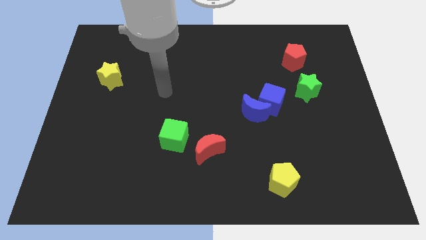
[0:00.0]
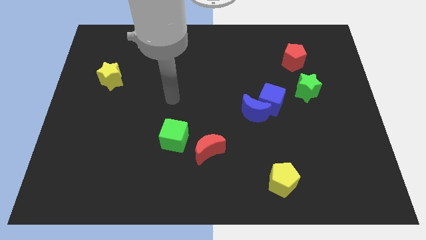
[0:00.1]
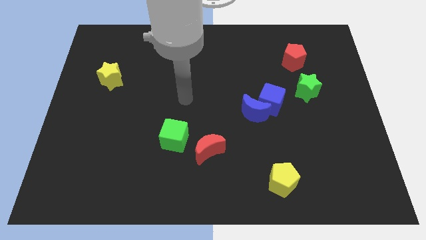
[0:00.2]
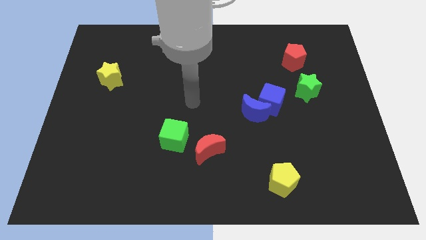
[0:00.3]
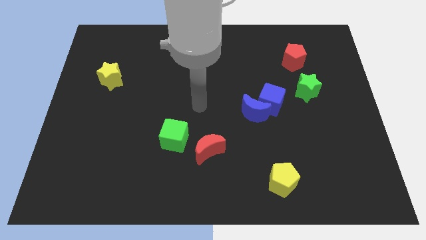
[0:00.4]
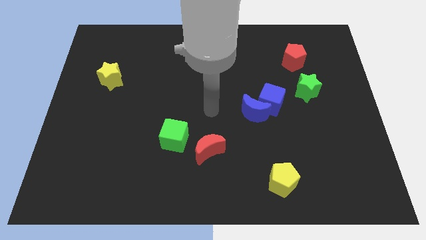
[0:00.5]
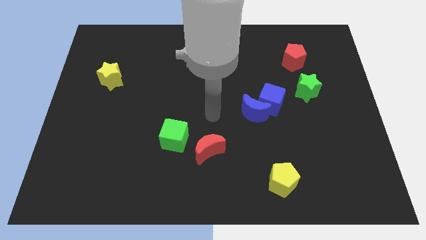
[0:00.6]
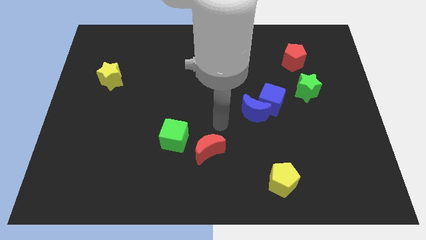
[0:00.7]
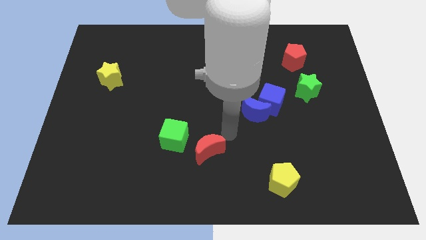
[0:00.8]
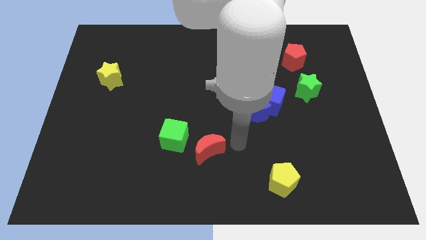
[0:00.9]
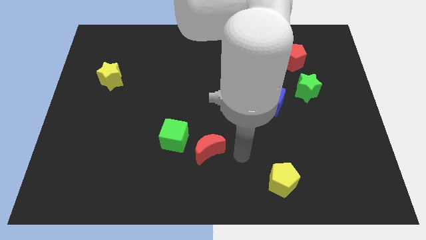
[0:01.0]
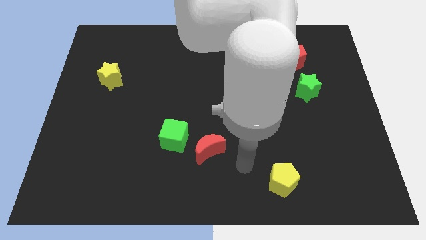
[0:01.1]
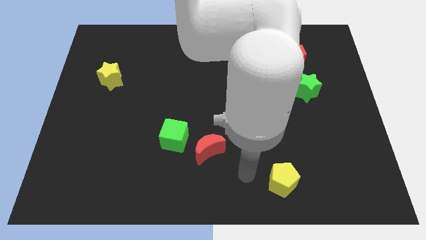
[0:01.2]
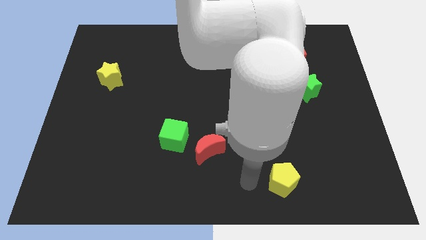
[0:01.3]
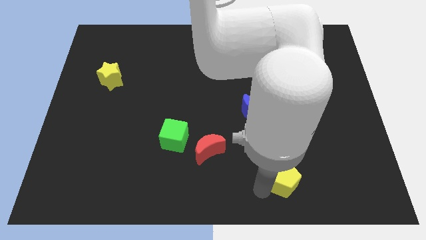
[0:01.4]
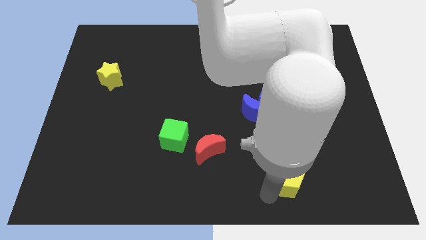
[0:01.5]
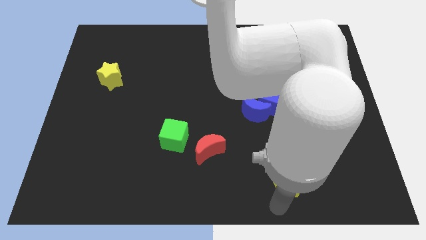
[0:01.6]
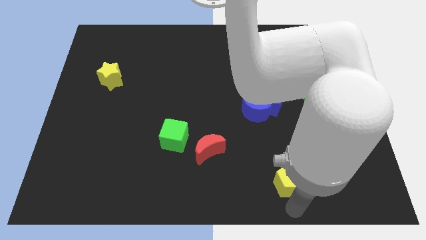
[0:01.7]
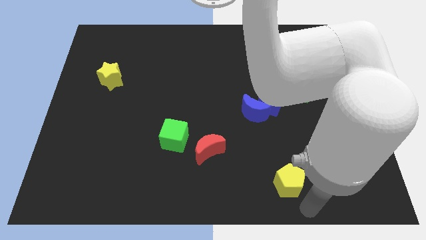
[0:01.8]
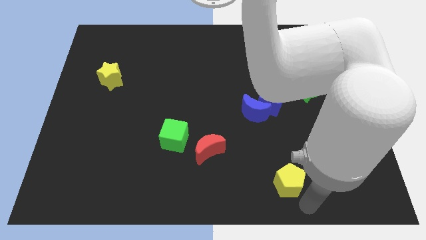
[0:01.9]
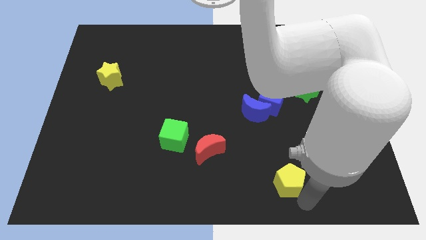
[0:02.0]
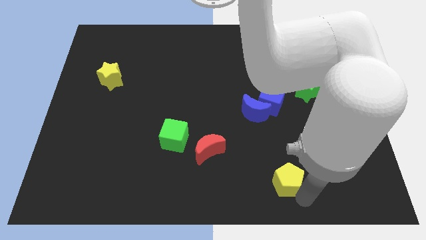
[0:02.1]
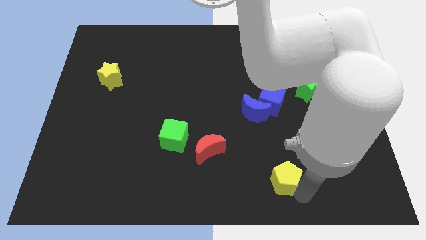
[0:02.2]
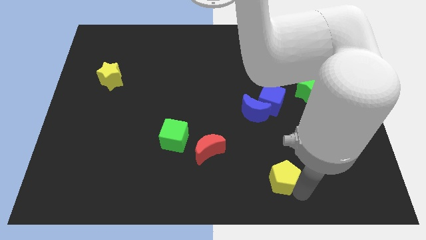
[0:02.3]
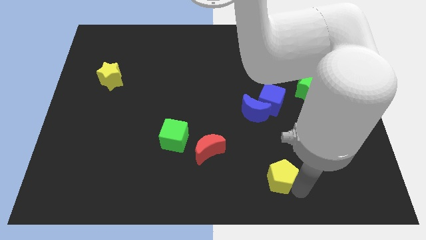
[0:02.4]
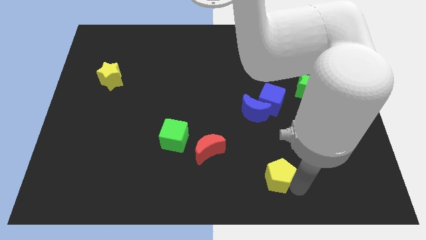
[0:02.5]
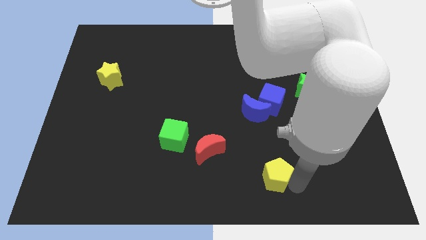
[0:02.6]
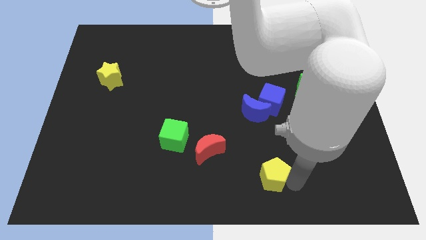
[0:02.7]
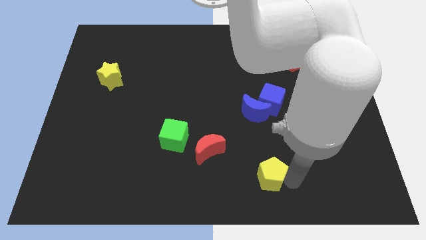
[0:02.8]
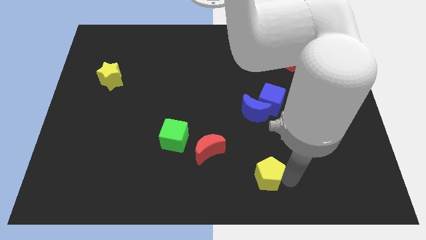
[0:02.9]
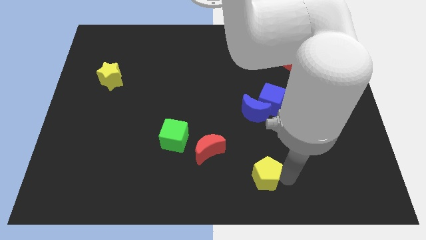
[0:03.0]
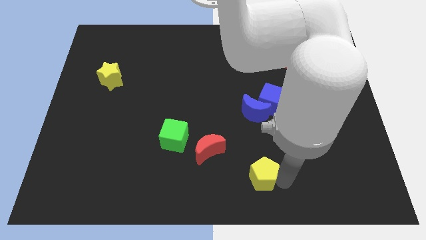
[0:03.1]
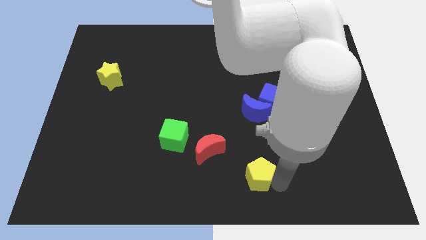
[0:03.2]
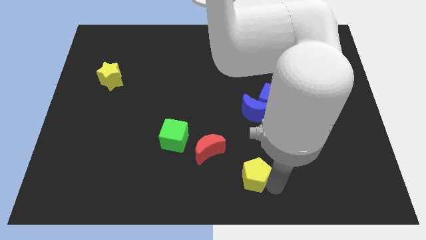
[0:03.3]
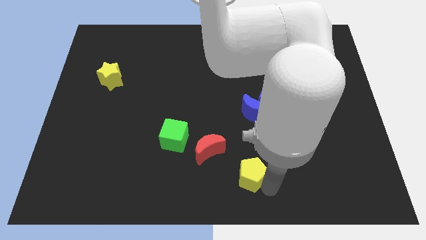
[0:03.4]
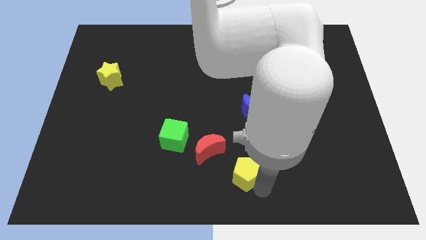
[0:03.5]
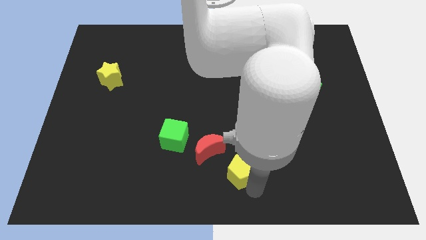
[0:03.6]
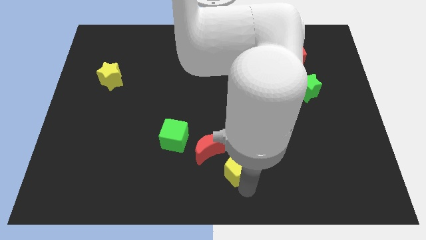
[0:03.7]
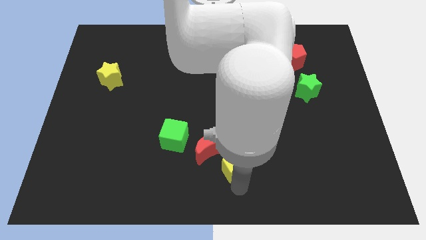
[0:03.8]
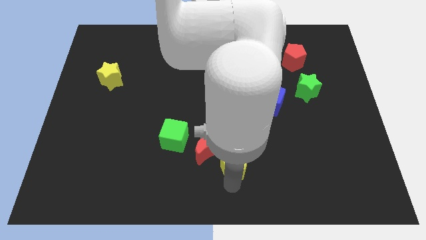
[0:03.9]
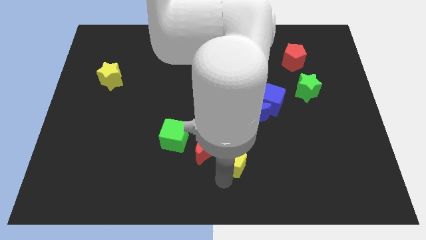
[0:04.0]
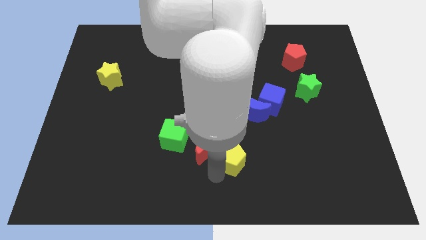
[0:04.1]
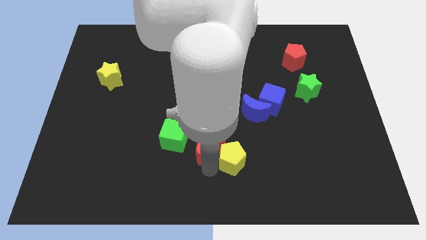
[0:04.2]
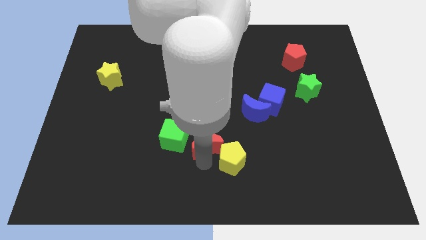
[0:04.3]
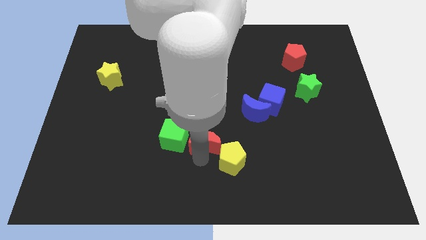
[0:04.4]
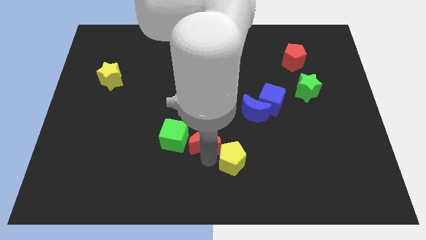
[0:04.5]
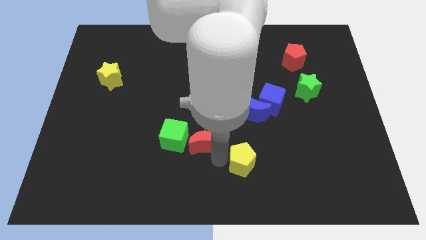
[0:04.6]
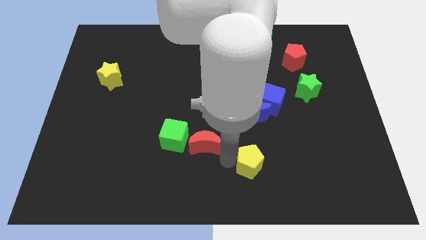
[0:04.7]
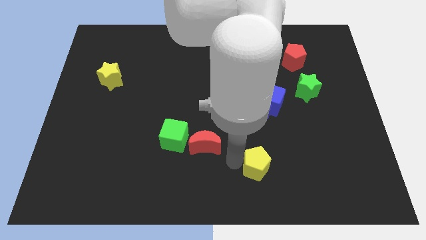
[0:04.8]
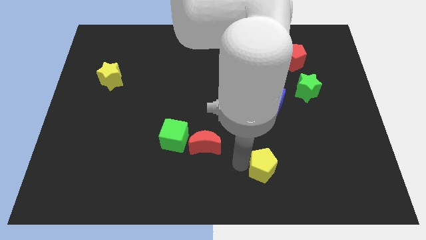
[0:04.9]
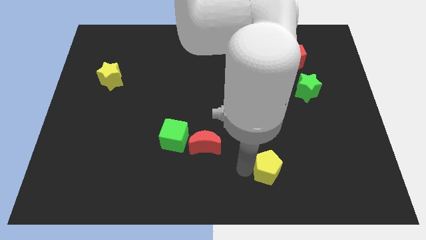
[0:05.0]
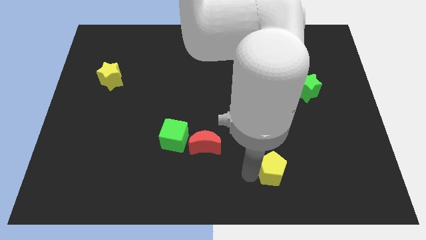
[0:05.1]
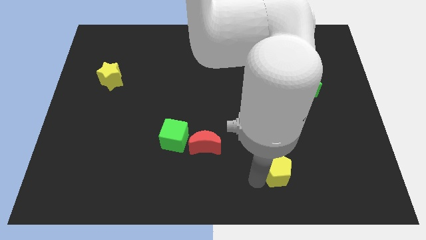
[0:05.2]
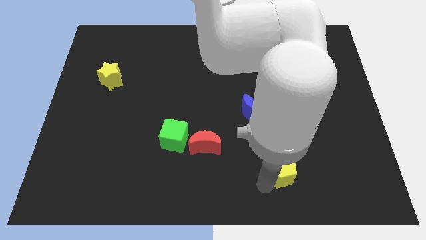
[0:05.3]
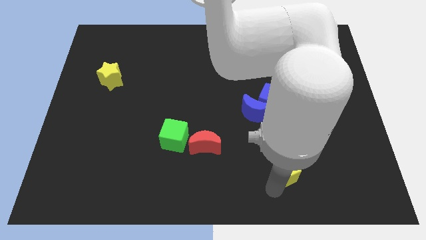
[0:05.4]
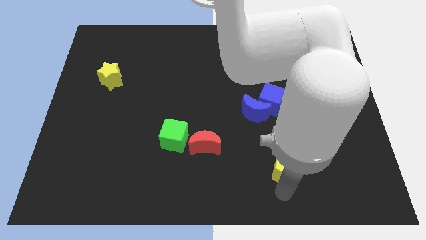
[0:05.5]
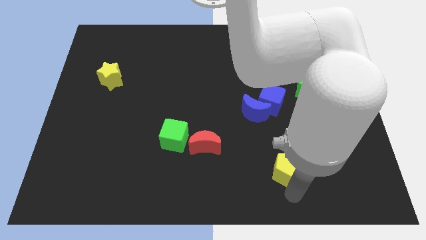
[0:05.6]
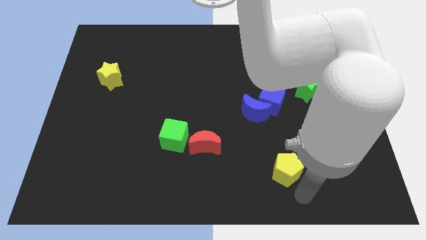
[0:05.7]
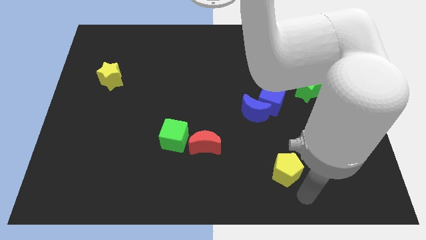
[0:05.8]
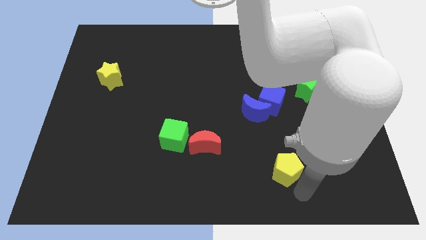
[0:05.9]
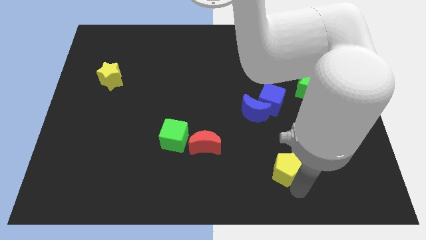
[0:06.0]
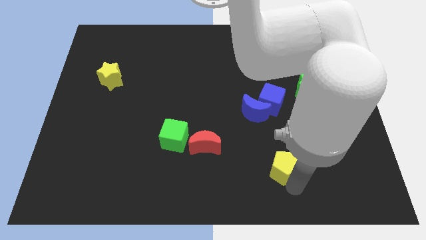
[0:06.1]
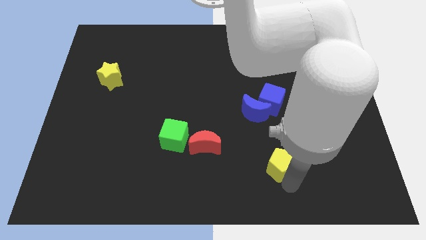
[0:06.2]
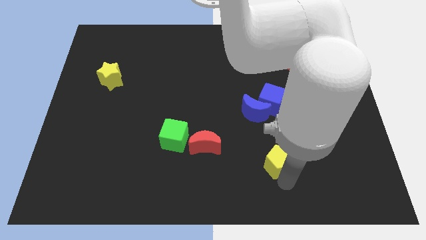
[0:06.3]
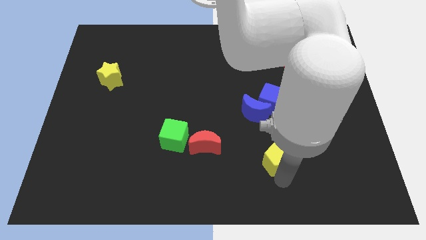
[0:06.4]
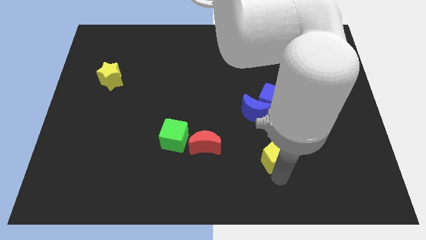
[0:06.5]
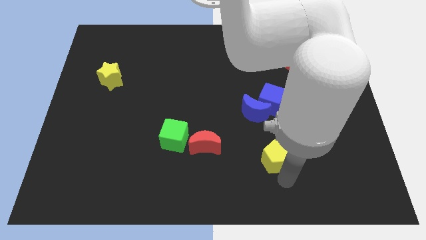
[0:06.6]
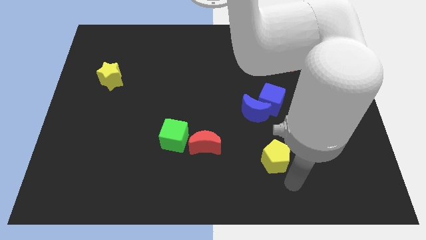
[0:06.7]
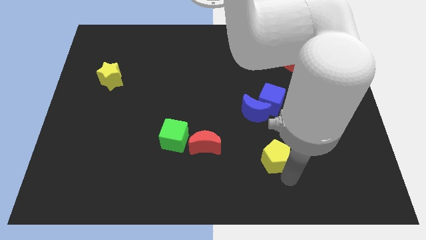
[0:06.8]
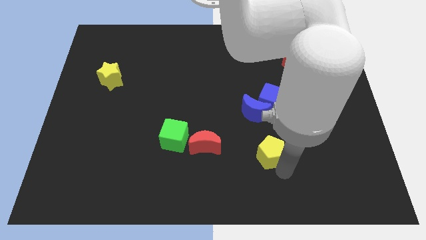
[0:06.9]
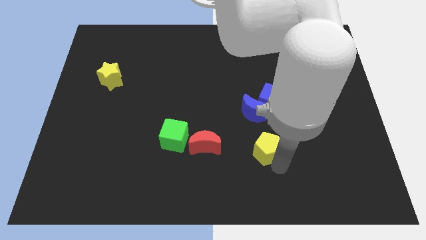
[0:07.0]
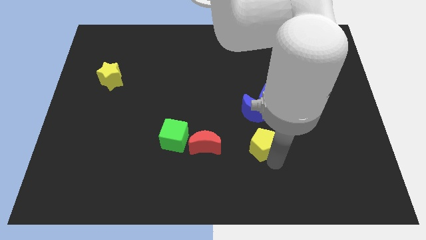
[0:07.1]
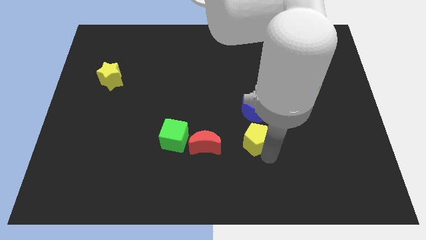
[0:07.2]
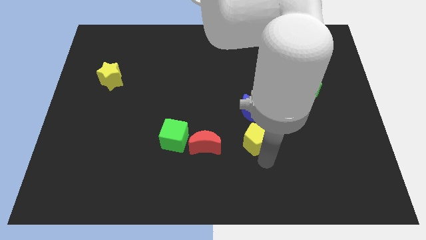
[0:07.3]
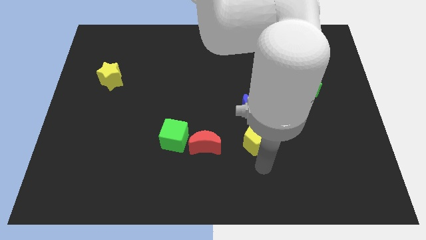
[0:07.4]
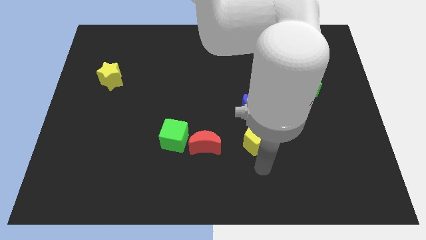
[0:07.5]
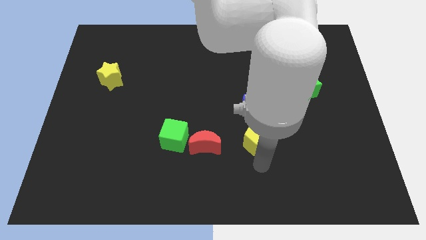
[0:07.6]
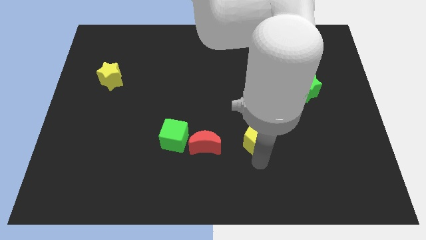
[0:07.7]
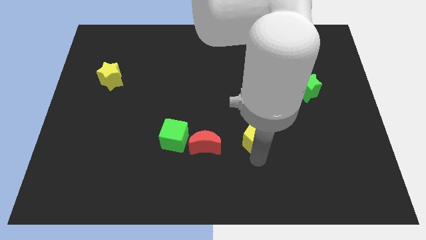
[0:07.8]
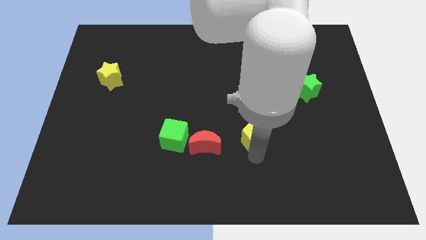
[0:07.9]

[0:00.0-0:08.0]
move the yellow pentagon to the bottom left of the blue cube
